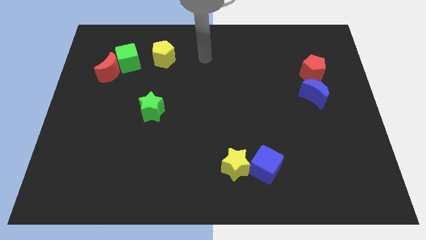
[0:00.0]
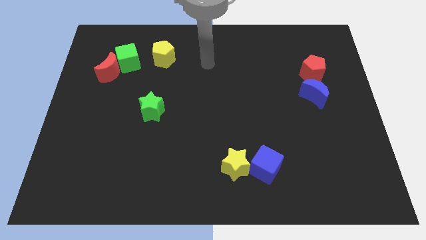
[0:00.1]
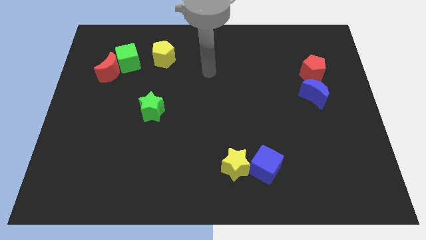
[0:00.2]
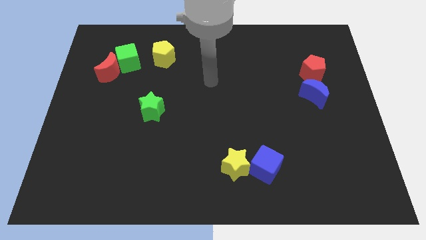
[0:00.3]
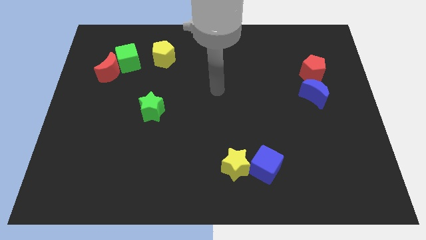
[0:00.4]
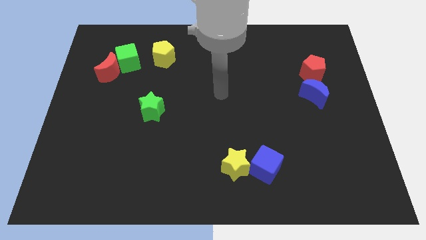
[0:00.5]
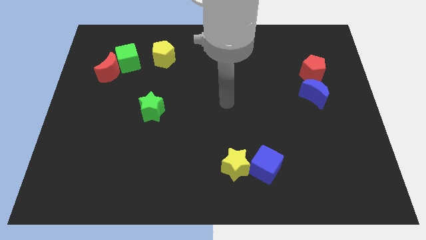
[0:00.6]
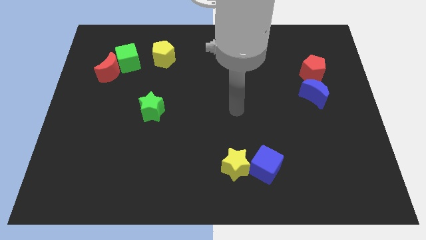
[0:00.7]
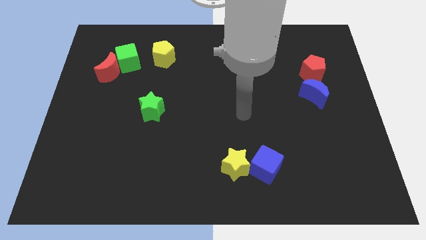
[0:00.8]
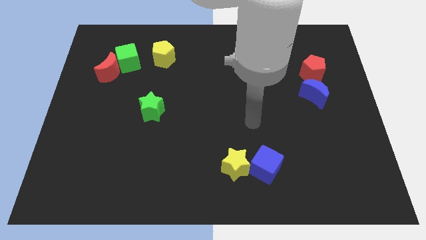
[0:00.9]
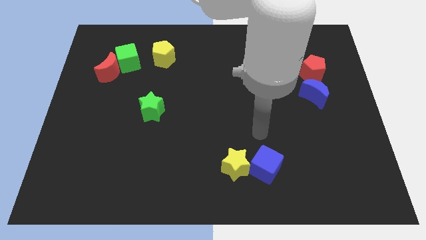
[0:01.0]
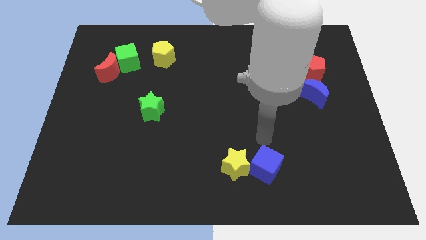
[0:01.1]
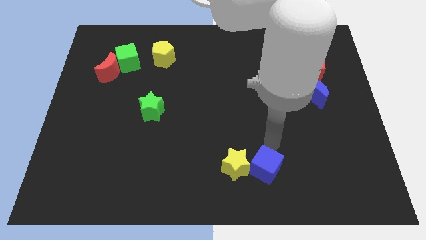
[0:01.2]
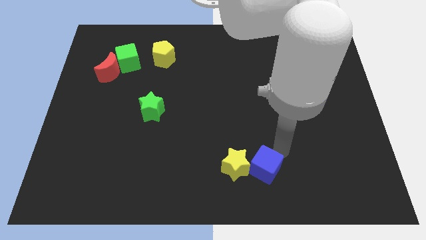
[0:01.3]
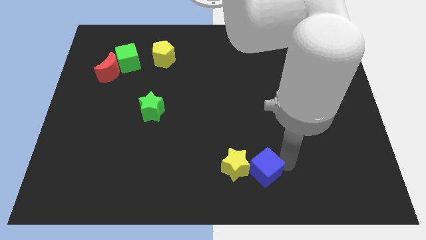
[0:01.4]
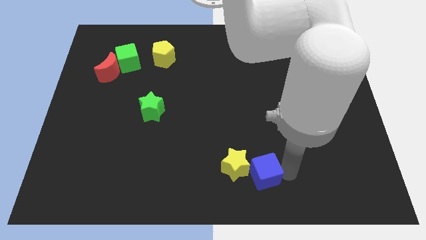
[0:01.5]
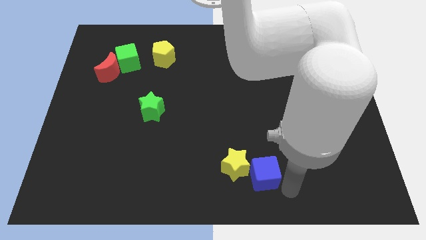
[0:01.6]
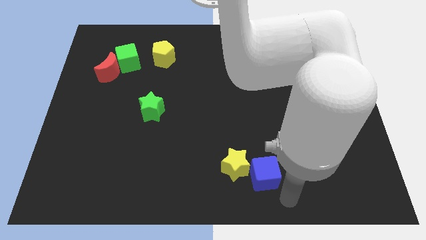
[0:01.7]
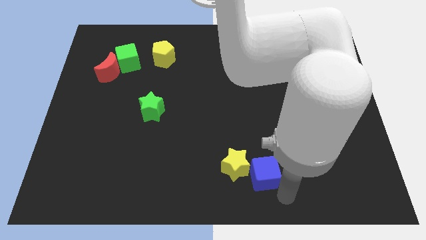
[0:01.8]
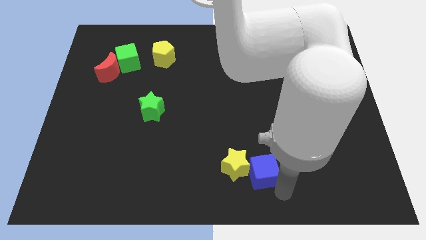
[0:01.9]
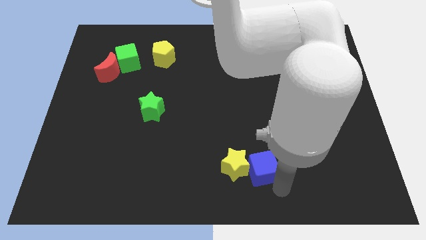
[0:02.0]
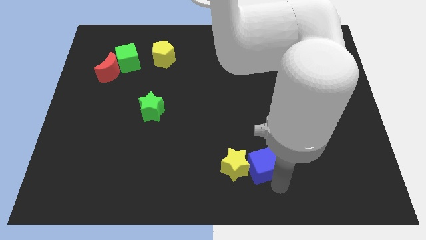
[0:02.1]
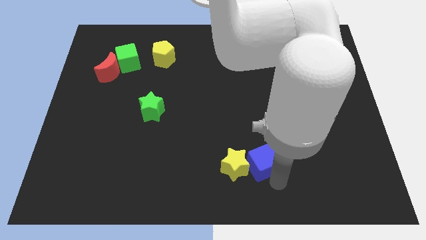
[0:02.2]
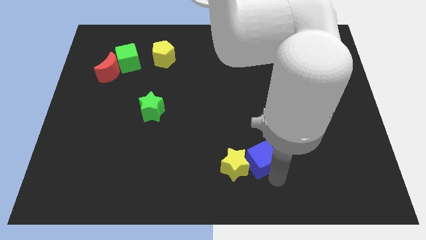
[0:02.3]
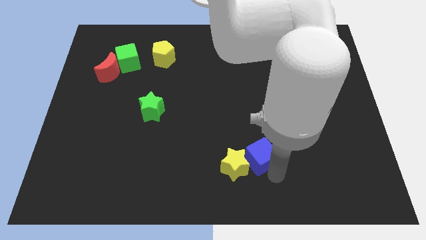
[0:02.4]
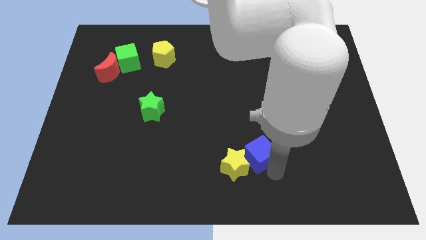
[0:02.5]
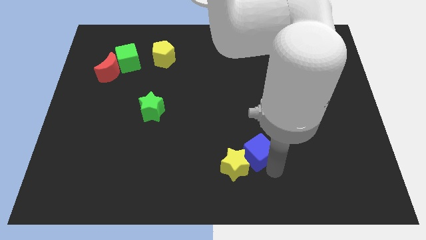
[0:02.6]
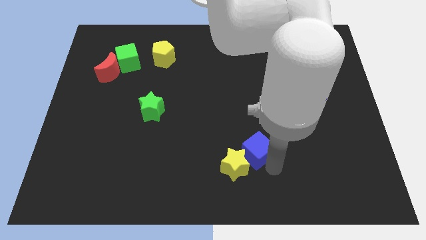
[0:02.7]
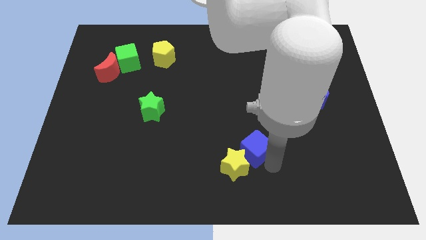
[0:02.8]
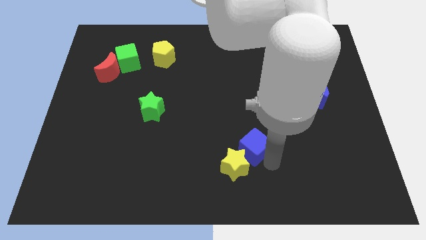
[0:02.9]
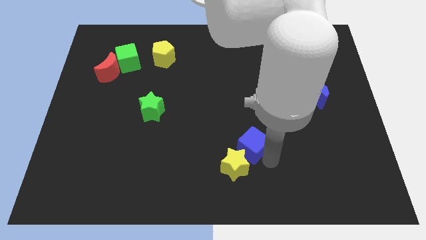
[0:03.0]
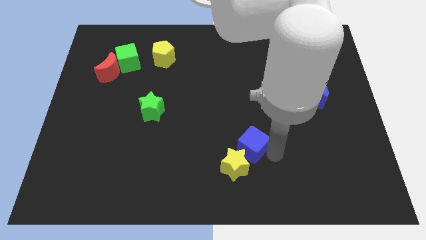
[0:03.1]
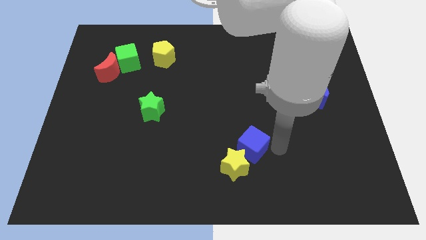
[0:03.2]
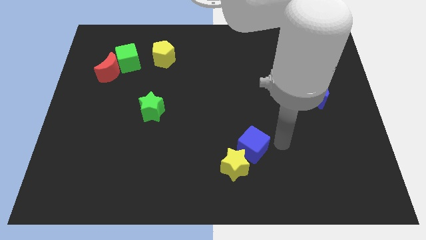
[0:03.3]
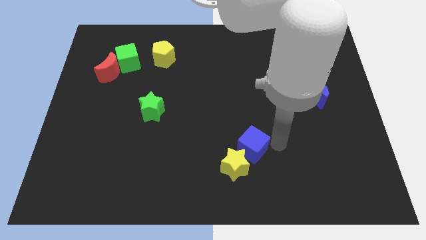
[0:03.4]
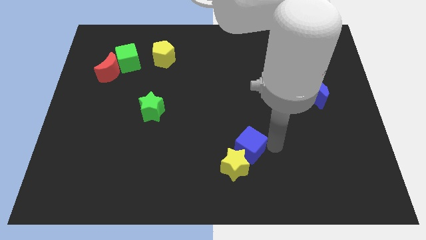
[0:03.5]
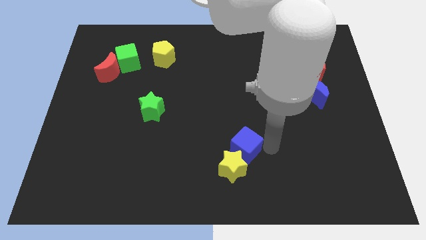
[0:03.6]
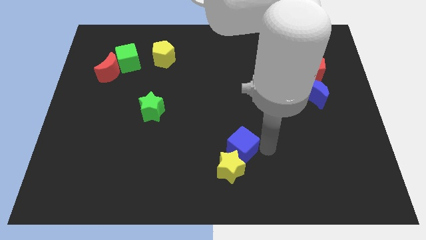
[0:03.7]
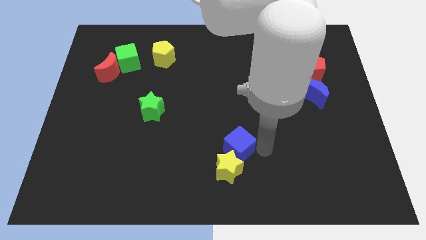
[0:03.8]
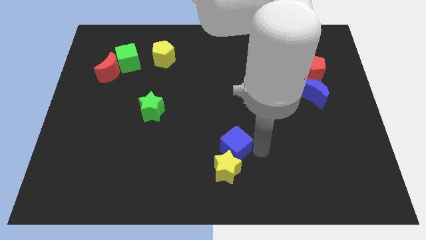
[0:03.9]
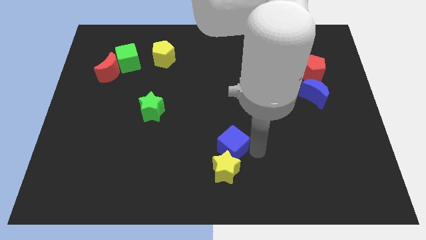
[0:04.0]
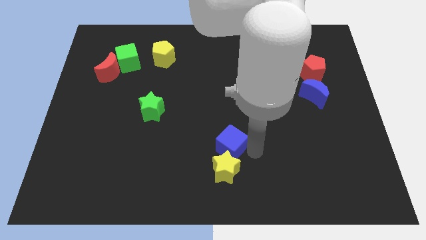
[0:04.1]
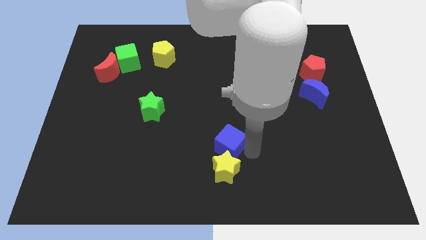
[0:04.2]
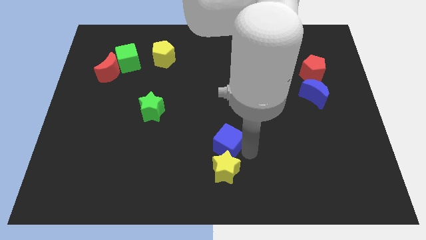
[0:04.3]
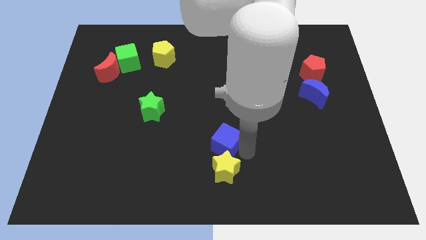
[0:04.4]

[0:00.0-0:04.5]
slightly move the blue cube to the left

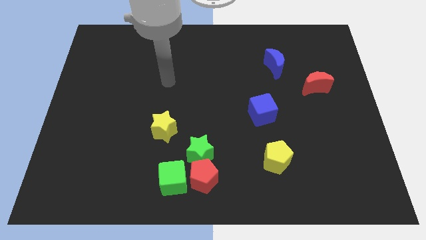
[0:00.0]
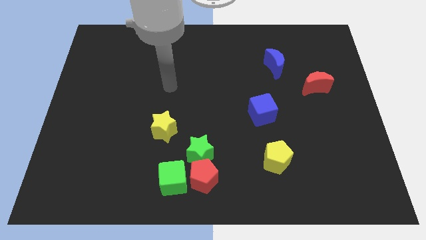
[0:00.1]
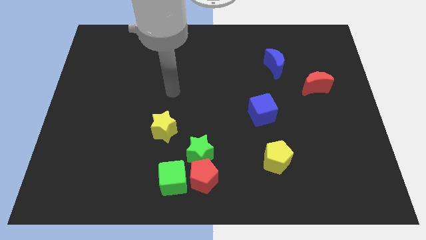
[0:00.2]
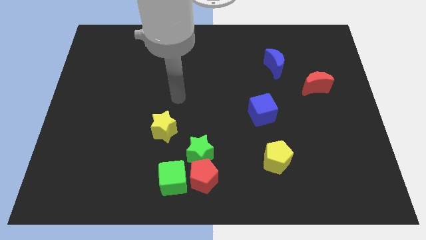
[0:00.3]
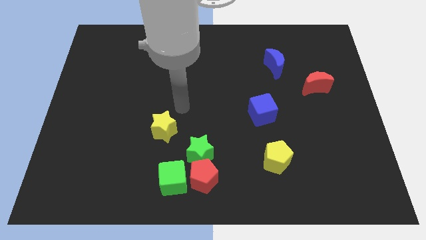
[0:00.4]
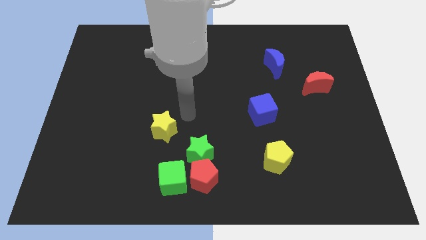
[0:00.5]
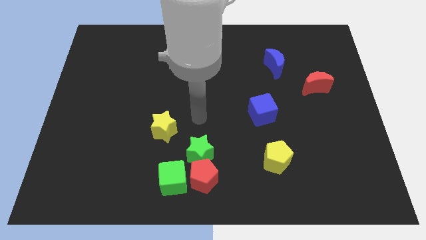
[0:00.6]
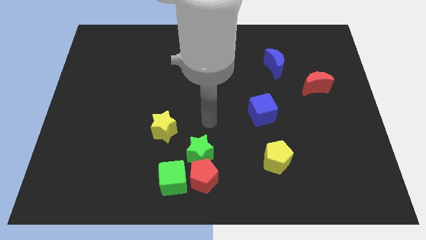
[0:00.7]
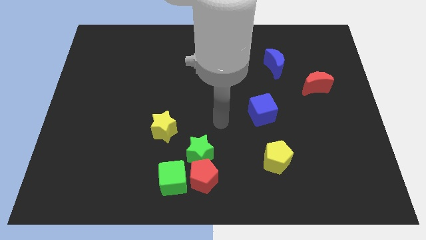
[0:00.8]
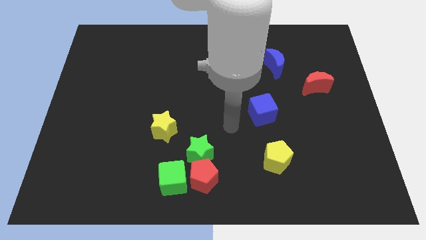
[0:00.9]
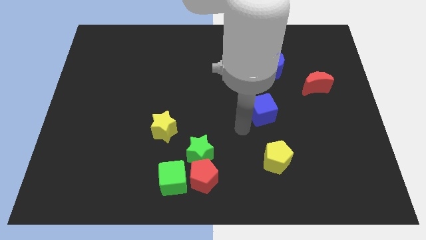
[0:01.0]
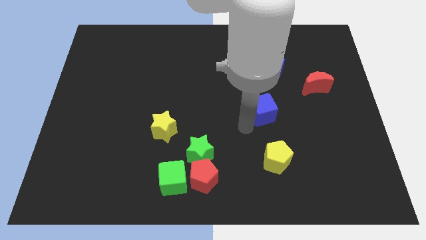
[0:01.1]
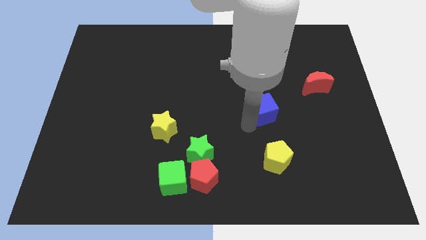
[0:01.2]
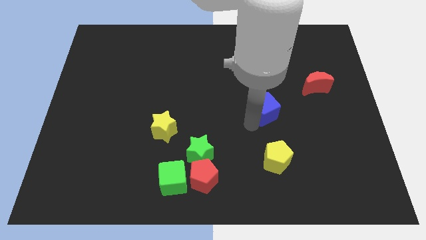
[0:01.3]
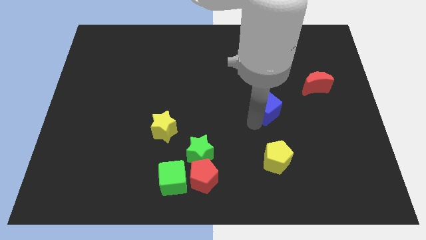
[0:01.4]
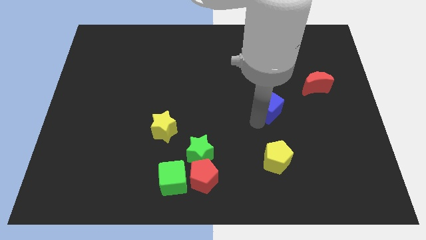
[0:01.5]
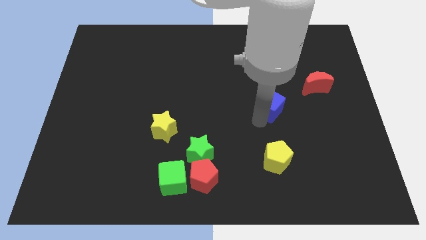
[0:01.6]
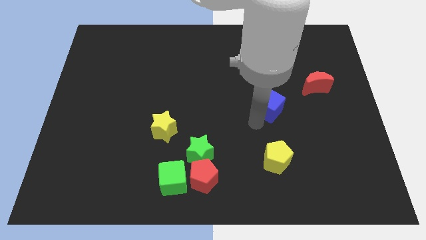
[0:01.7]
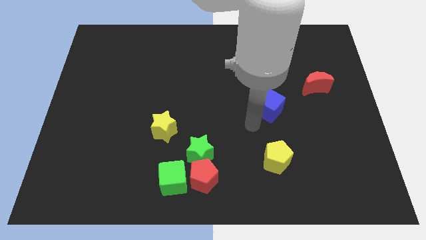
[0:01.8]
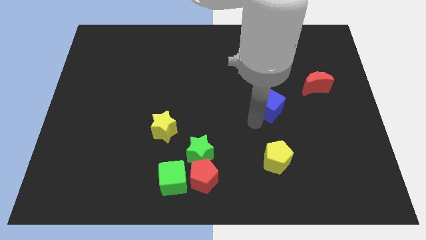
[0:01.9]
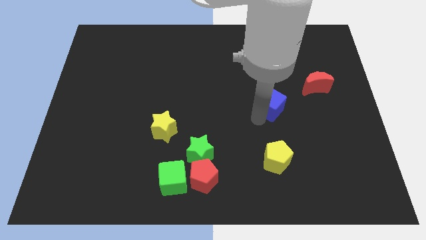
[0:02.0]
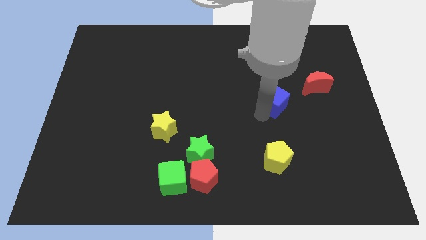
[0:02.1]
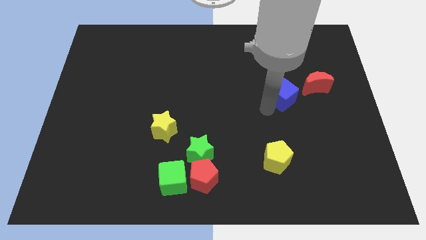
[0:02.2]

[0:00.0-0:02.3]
push the blue cube a bit diagonally upwards and right

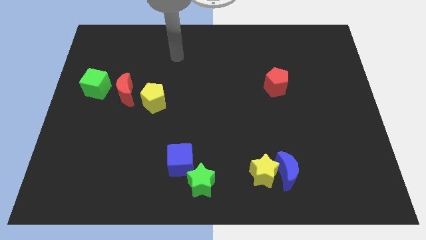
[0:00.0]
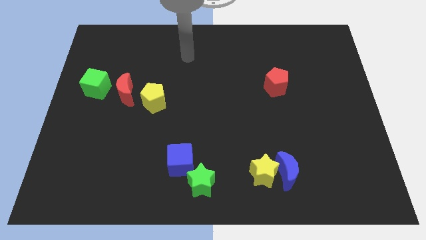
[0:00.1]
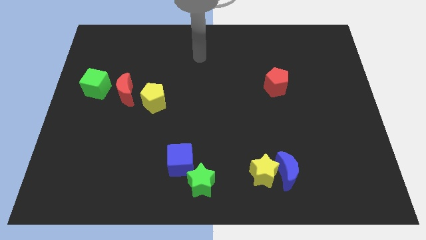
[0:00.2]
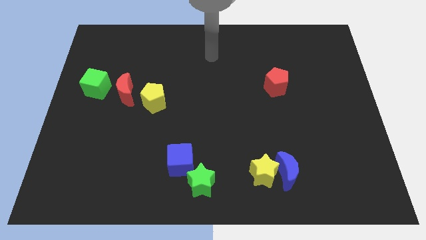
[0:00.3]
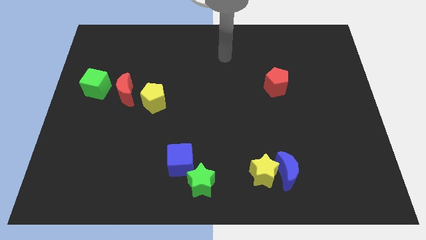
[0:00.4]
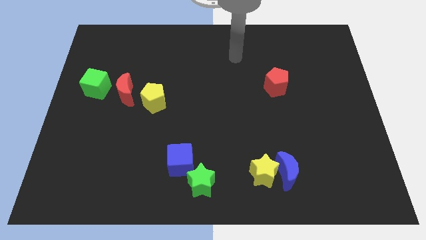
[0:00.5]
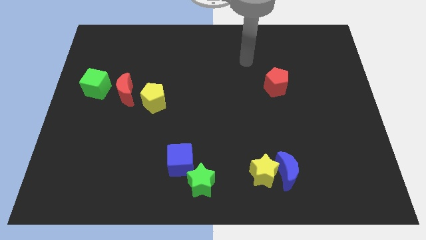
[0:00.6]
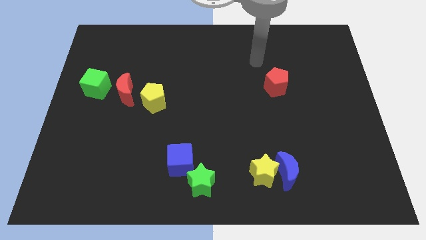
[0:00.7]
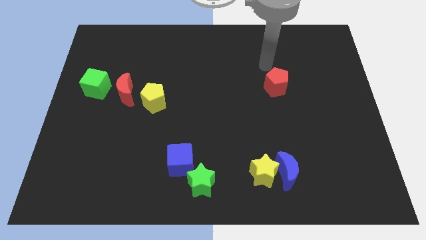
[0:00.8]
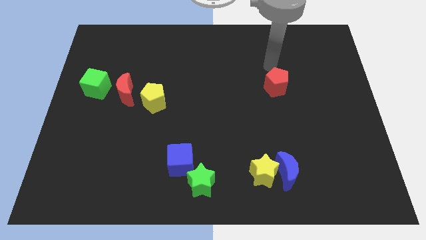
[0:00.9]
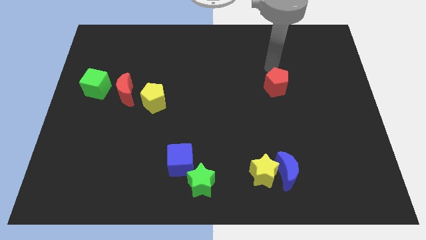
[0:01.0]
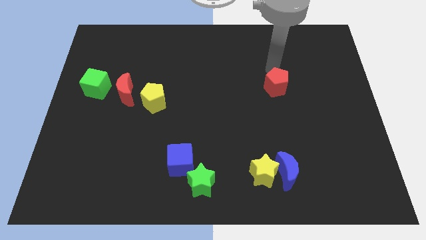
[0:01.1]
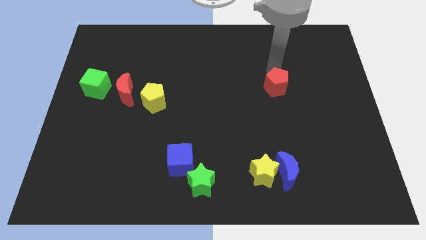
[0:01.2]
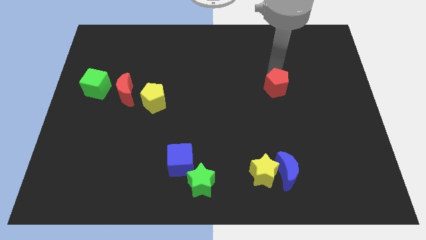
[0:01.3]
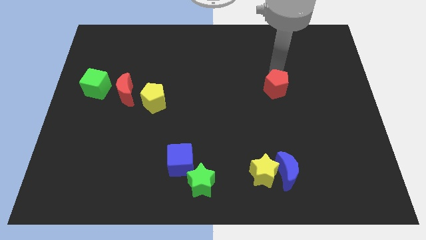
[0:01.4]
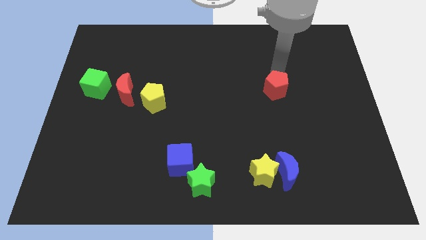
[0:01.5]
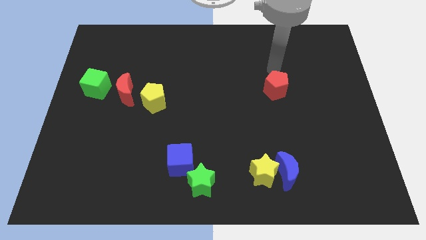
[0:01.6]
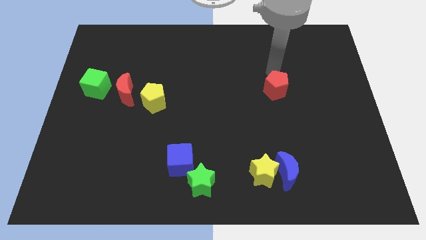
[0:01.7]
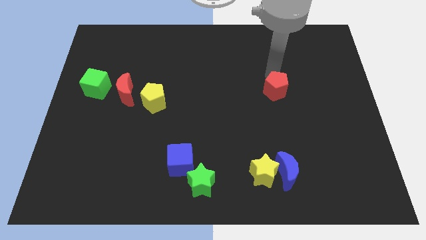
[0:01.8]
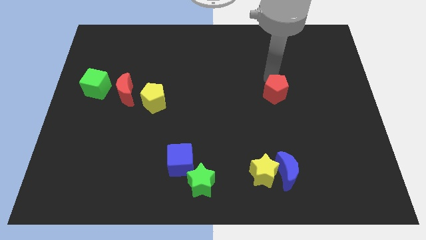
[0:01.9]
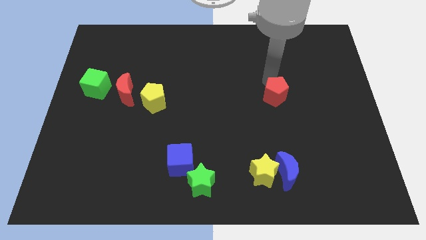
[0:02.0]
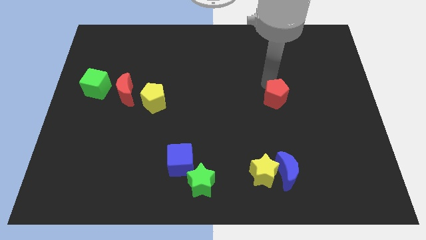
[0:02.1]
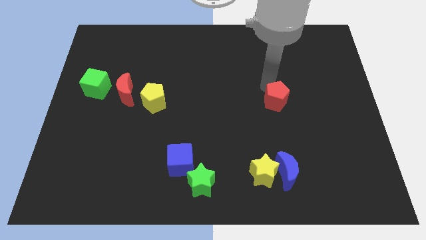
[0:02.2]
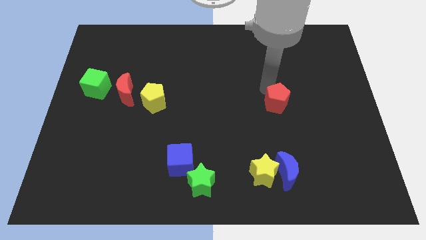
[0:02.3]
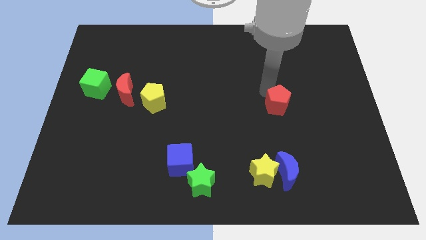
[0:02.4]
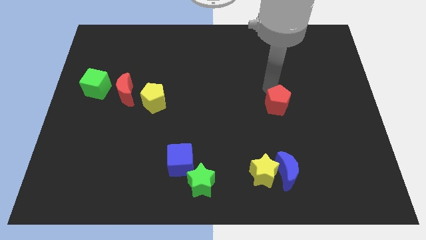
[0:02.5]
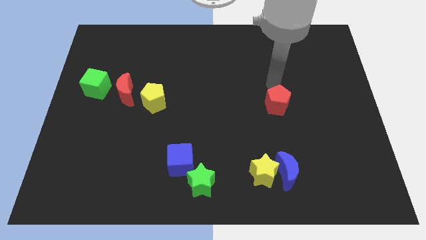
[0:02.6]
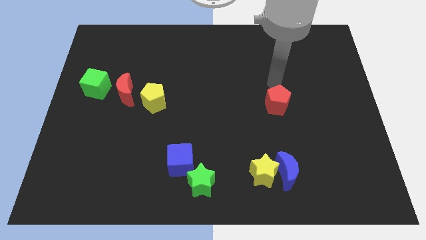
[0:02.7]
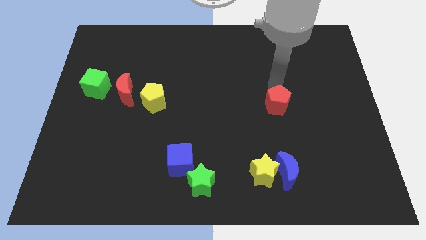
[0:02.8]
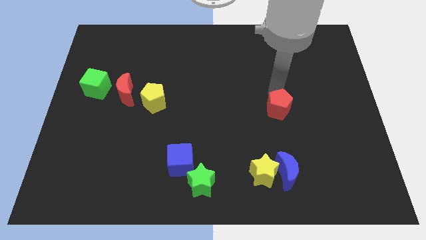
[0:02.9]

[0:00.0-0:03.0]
push the red pentagon a little down
